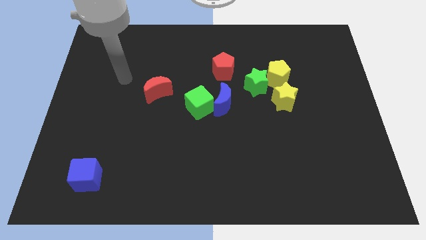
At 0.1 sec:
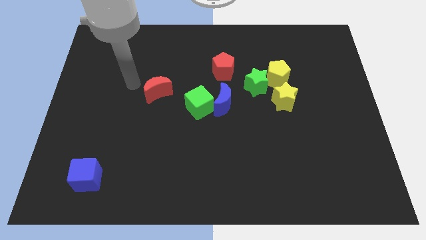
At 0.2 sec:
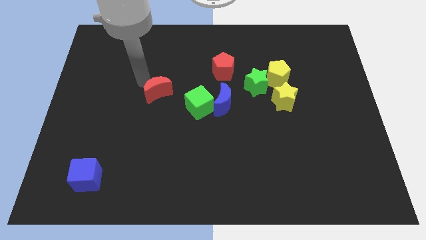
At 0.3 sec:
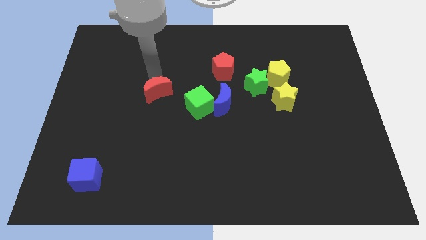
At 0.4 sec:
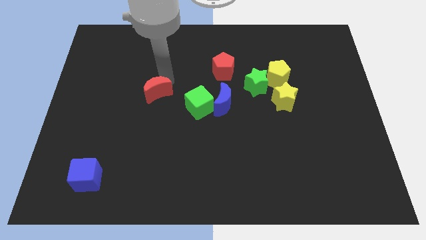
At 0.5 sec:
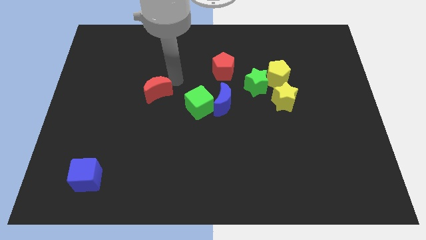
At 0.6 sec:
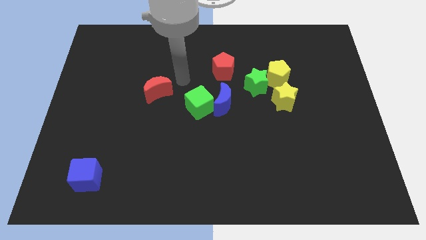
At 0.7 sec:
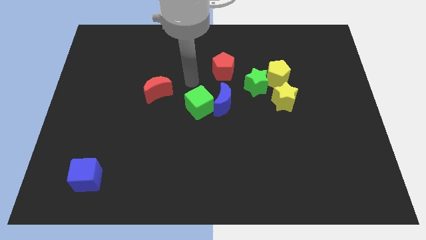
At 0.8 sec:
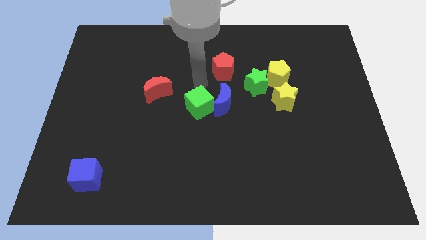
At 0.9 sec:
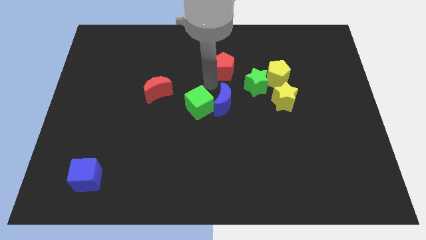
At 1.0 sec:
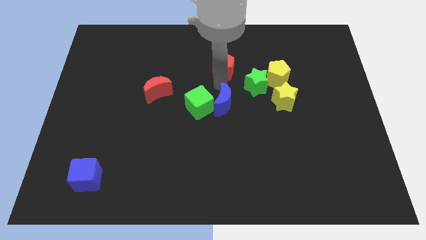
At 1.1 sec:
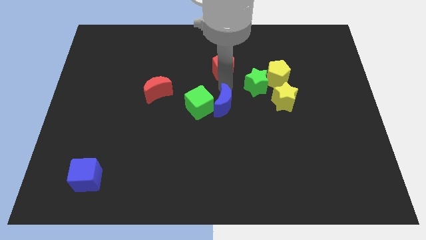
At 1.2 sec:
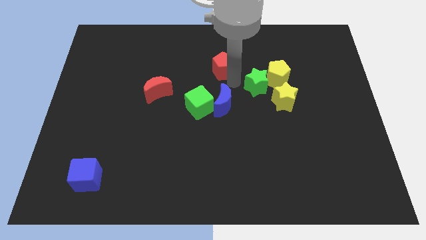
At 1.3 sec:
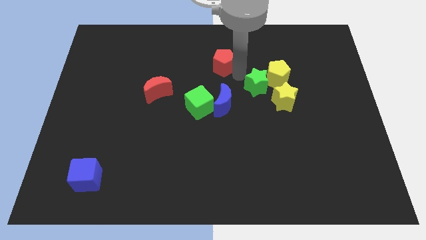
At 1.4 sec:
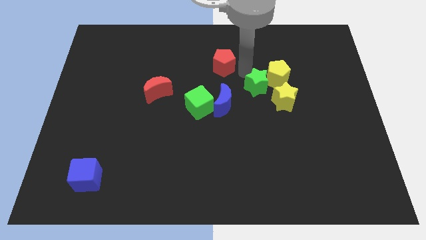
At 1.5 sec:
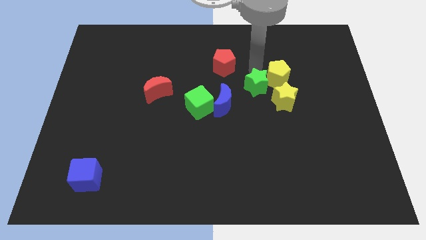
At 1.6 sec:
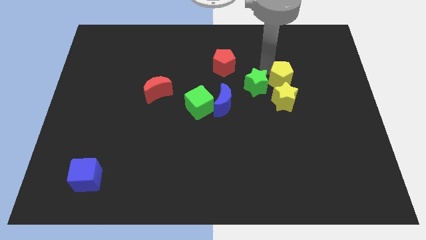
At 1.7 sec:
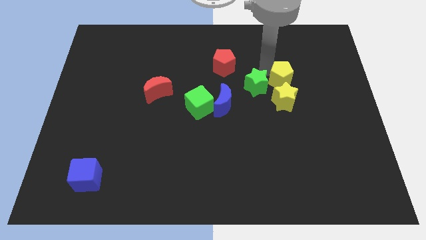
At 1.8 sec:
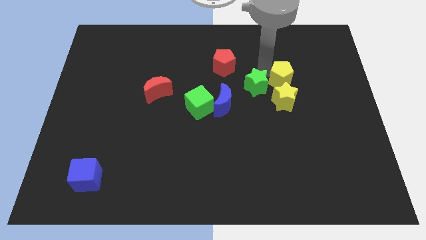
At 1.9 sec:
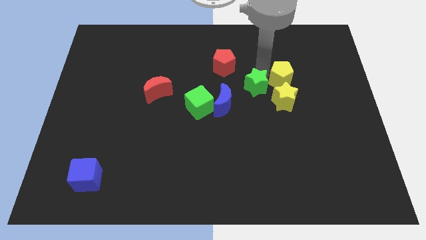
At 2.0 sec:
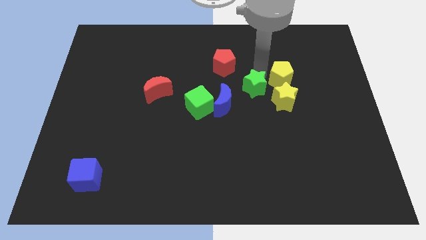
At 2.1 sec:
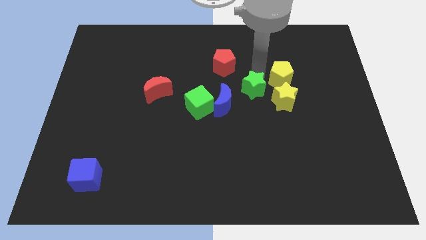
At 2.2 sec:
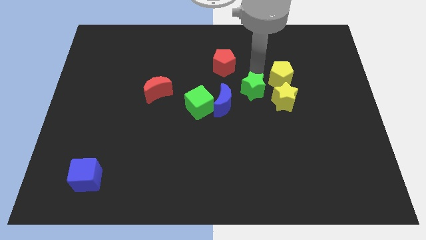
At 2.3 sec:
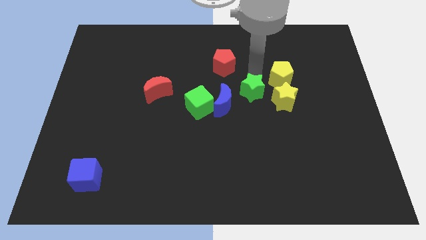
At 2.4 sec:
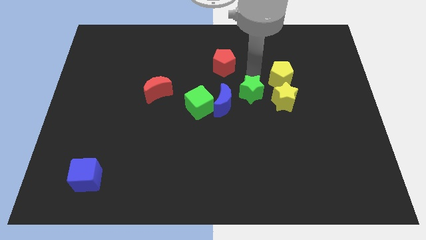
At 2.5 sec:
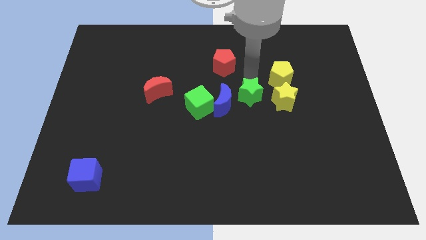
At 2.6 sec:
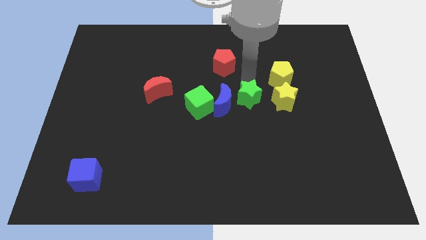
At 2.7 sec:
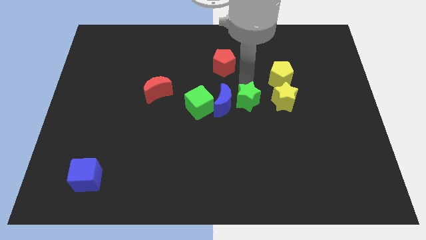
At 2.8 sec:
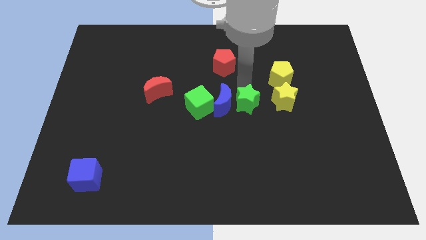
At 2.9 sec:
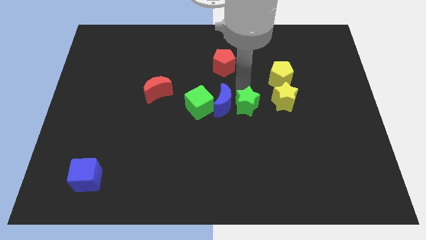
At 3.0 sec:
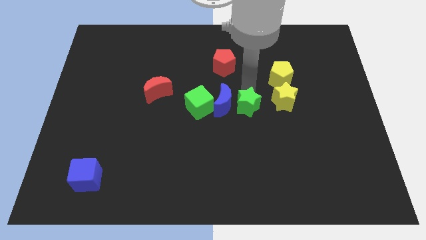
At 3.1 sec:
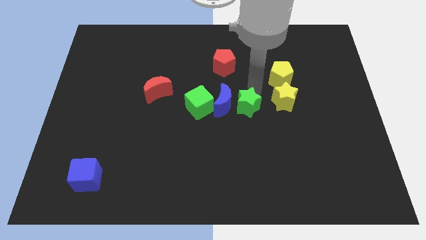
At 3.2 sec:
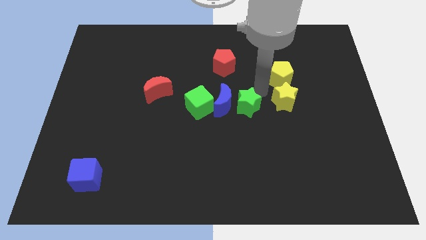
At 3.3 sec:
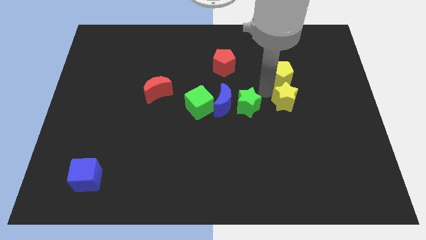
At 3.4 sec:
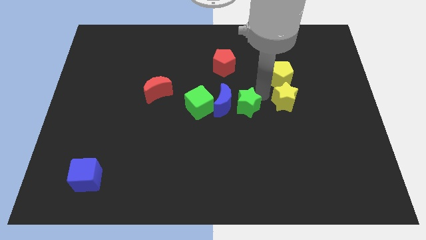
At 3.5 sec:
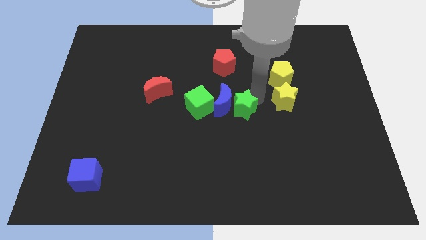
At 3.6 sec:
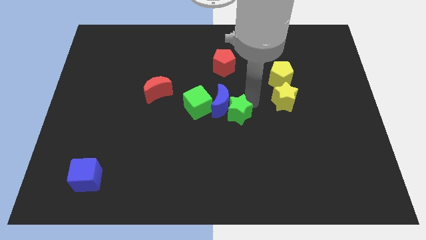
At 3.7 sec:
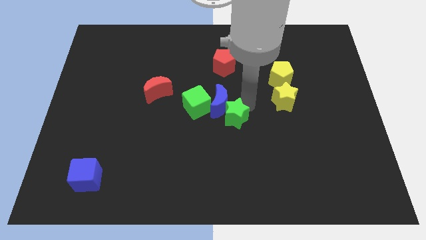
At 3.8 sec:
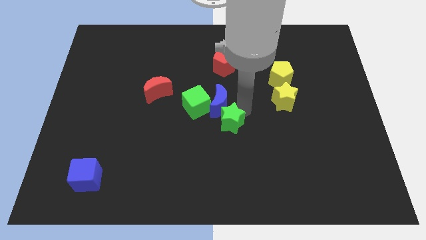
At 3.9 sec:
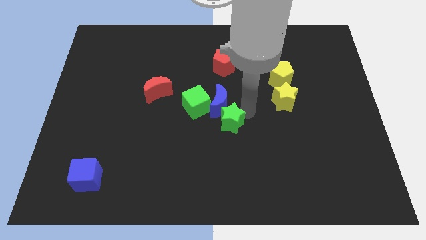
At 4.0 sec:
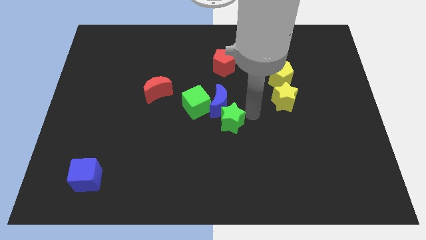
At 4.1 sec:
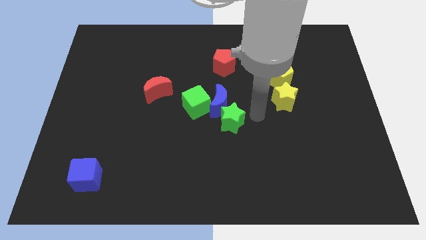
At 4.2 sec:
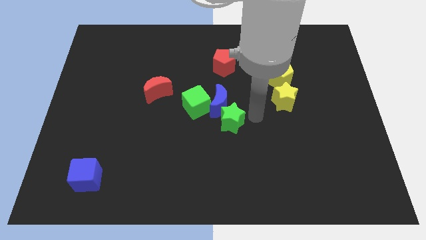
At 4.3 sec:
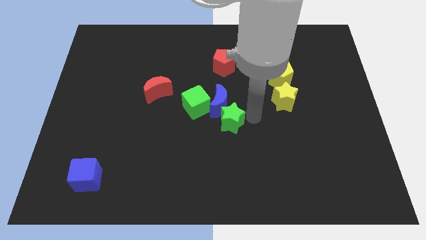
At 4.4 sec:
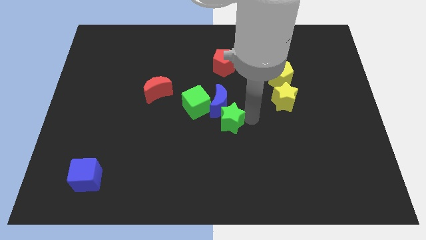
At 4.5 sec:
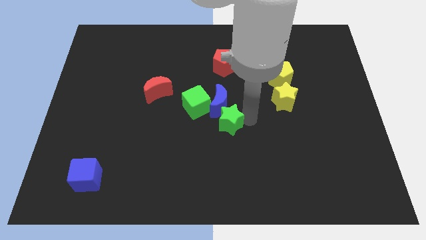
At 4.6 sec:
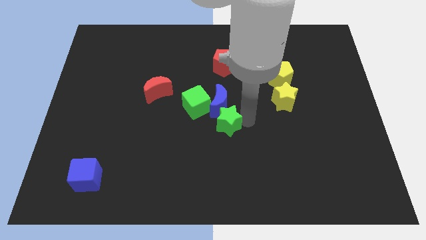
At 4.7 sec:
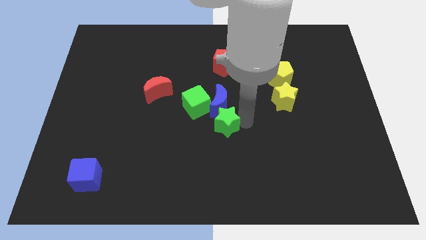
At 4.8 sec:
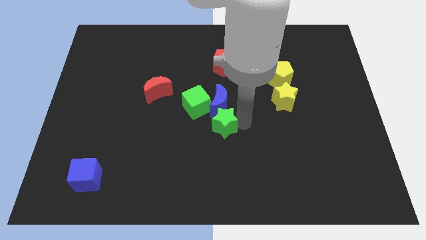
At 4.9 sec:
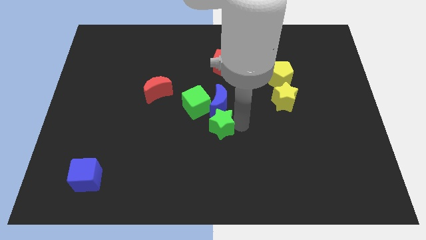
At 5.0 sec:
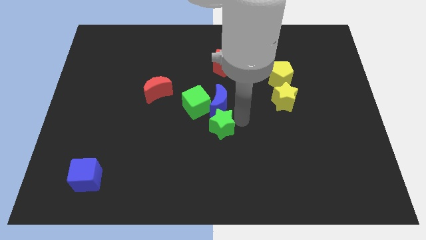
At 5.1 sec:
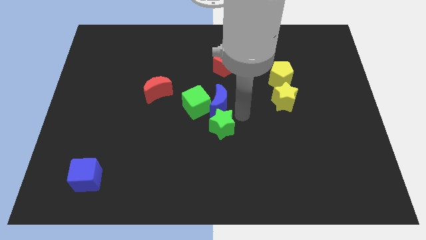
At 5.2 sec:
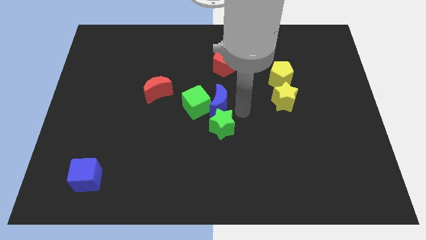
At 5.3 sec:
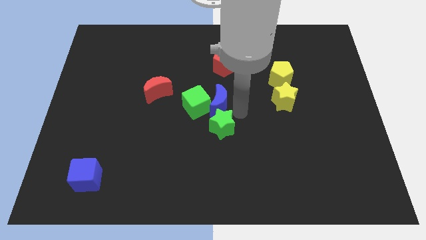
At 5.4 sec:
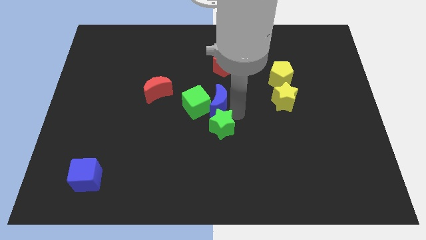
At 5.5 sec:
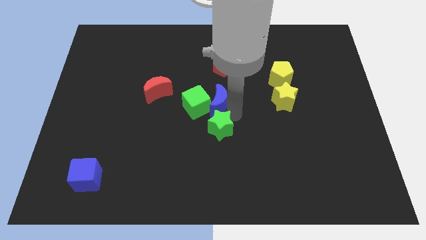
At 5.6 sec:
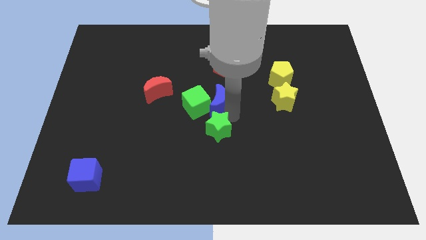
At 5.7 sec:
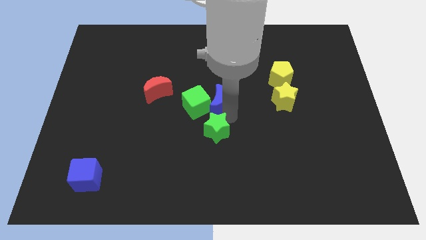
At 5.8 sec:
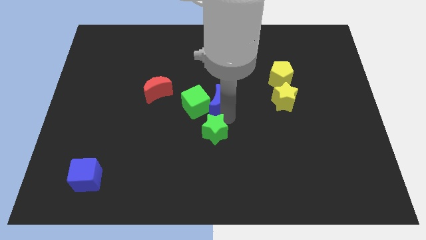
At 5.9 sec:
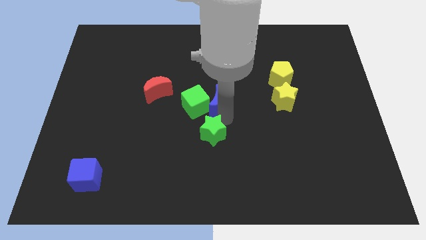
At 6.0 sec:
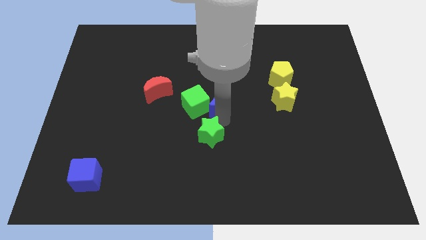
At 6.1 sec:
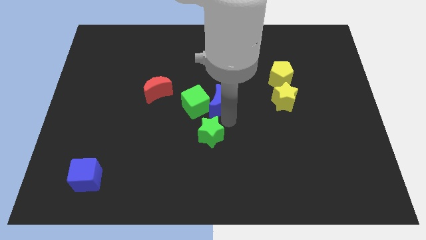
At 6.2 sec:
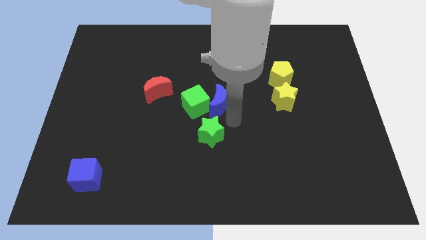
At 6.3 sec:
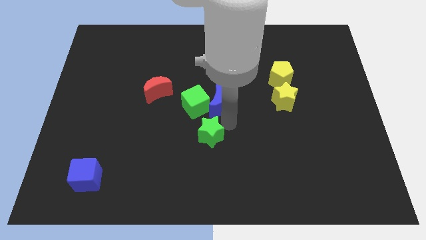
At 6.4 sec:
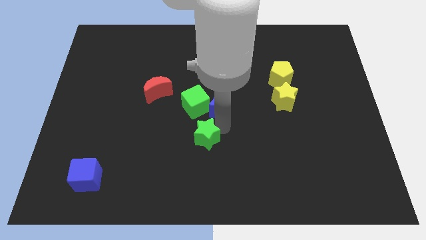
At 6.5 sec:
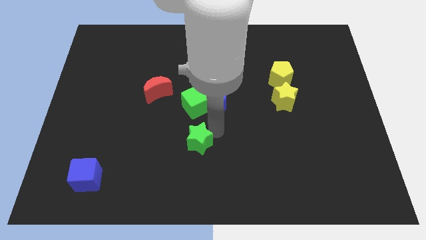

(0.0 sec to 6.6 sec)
move the green star downwards and then left

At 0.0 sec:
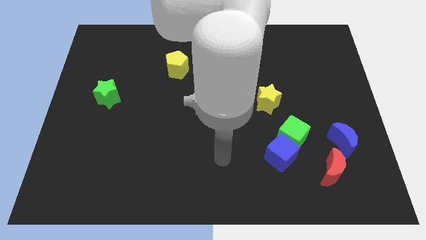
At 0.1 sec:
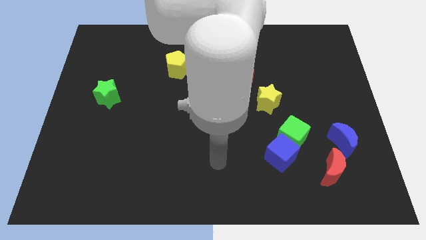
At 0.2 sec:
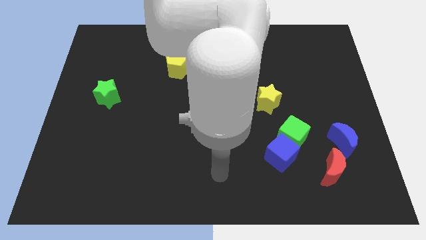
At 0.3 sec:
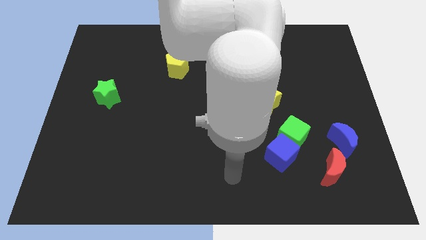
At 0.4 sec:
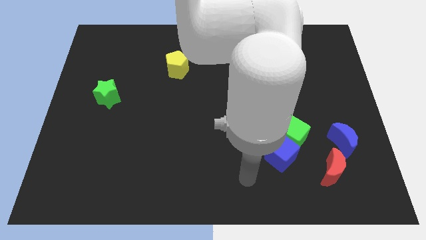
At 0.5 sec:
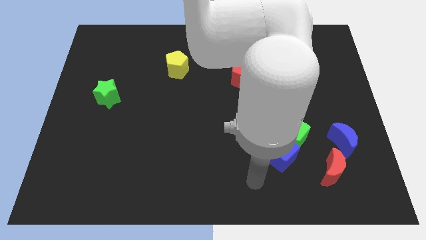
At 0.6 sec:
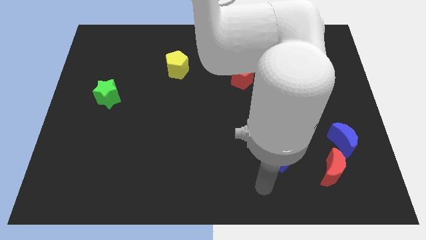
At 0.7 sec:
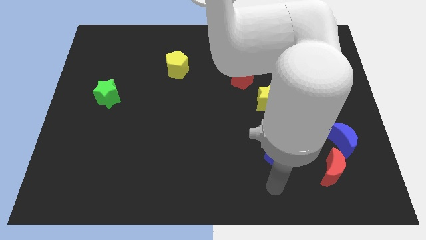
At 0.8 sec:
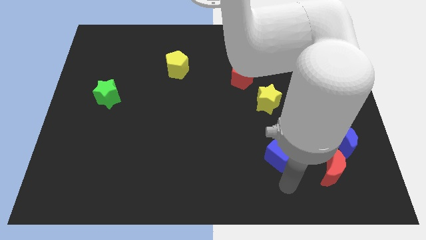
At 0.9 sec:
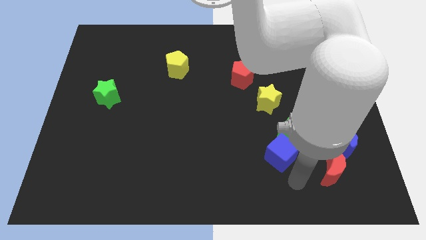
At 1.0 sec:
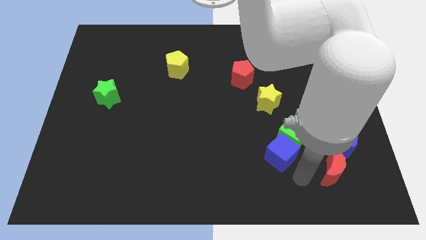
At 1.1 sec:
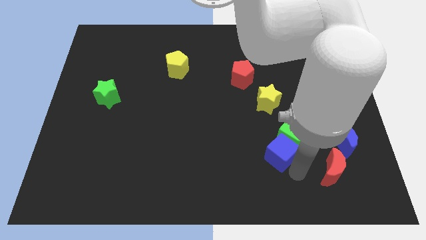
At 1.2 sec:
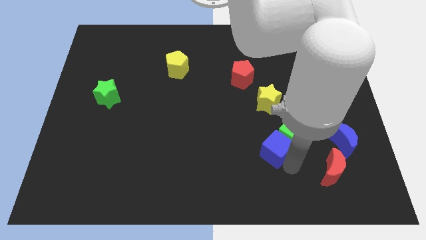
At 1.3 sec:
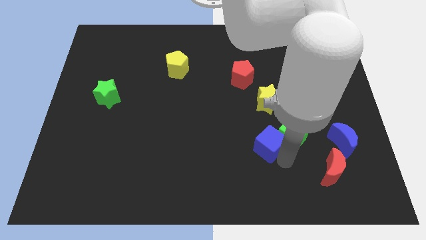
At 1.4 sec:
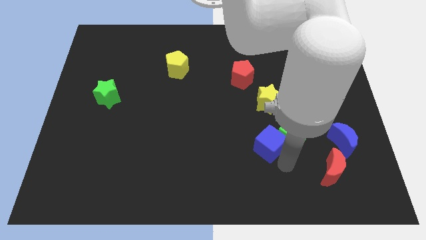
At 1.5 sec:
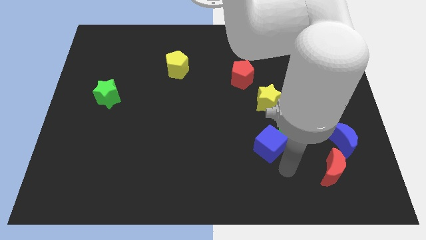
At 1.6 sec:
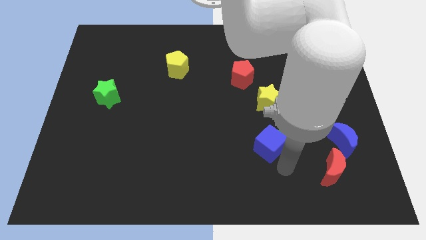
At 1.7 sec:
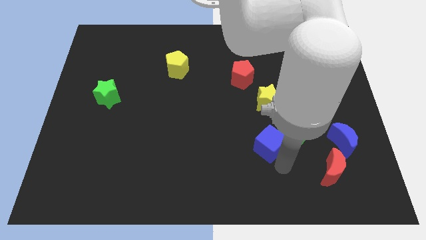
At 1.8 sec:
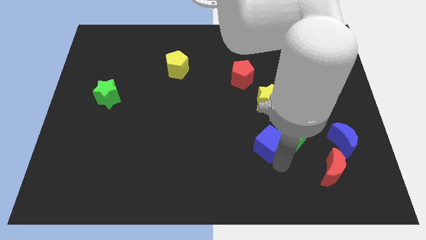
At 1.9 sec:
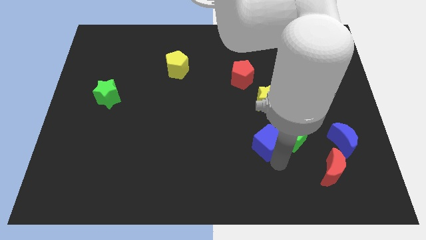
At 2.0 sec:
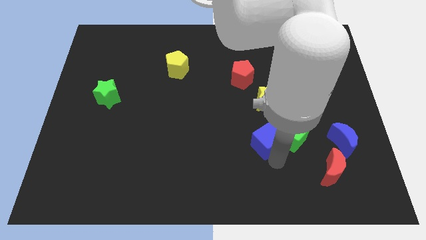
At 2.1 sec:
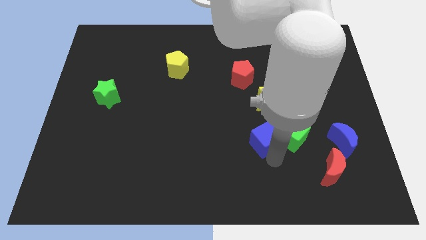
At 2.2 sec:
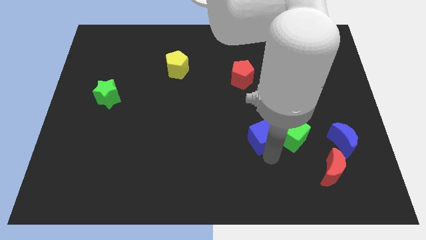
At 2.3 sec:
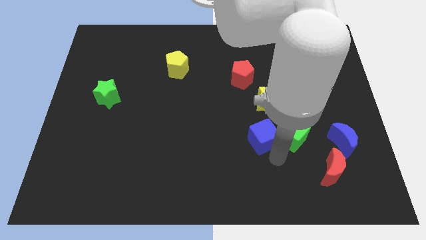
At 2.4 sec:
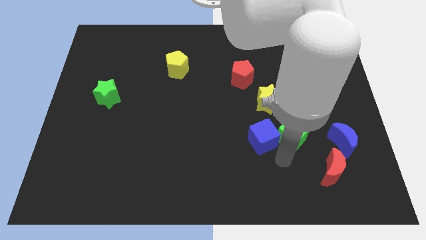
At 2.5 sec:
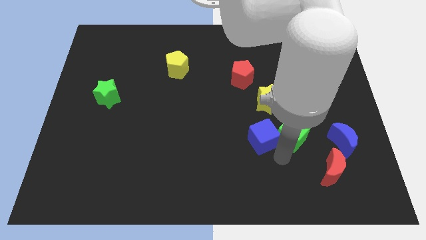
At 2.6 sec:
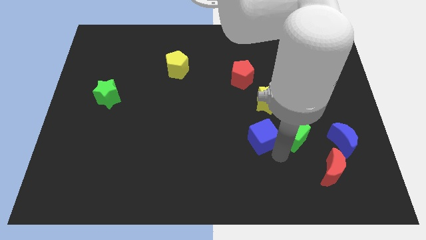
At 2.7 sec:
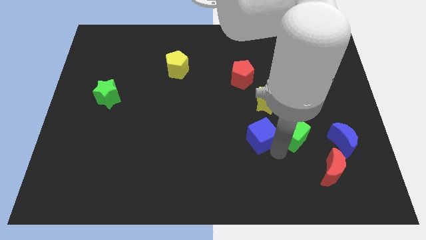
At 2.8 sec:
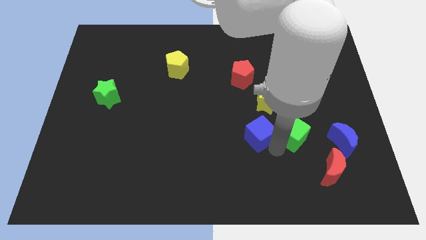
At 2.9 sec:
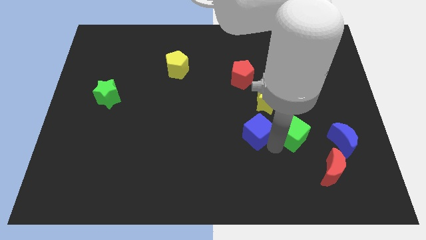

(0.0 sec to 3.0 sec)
slide the blue cube slightly up and then left
